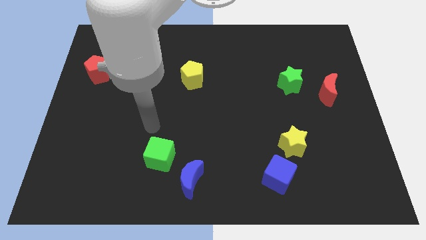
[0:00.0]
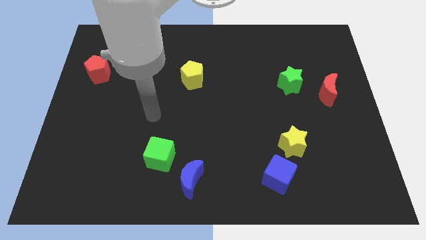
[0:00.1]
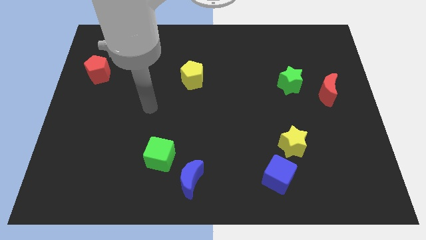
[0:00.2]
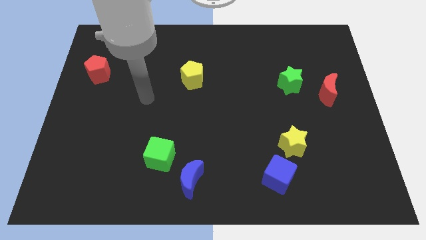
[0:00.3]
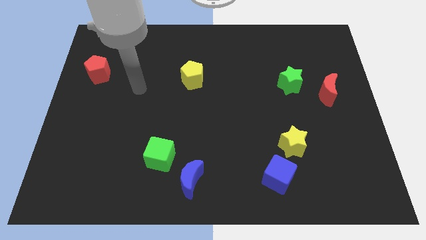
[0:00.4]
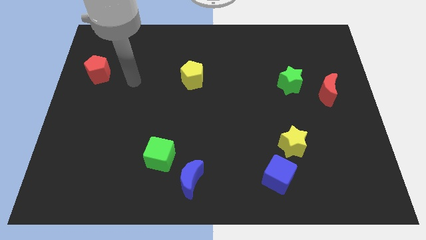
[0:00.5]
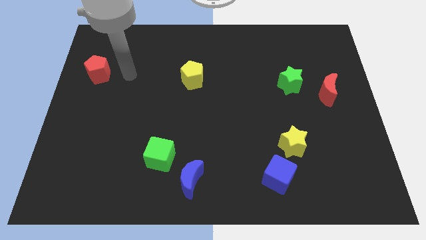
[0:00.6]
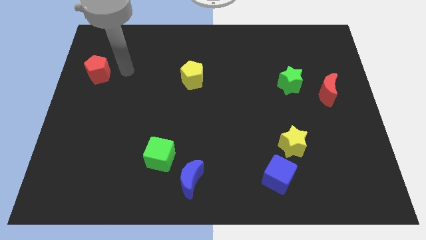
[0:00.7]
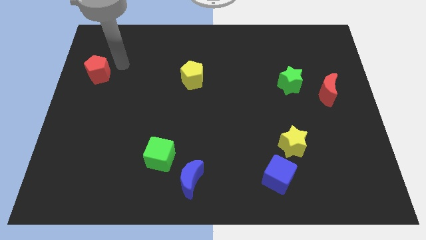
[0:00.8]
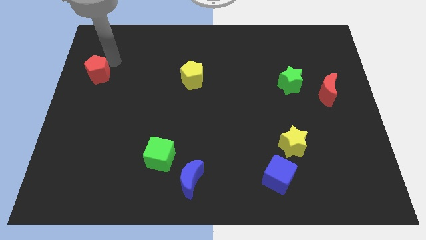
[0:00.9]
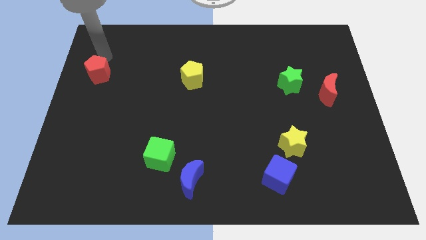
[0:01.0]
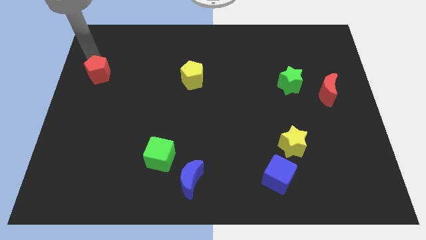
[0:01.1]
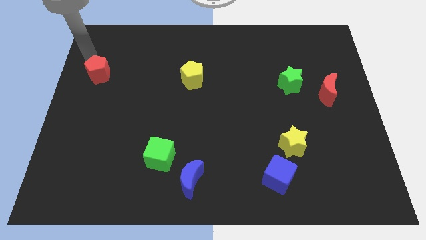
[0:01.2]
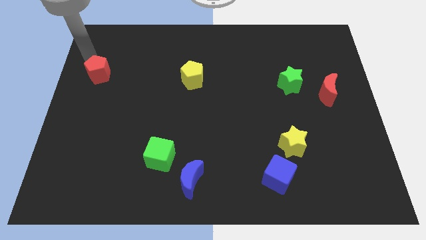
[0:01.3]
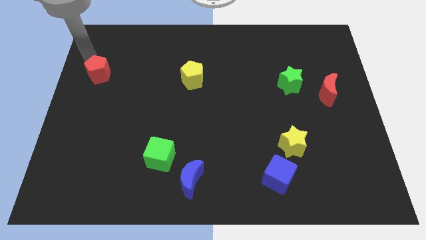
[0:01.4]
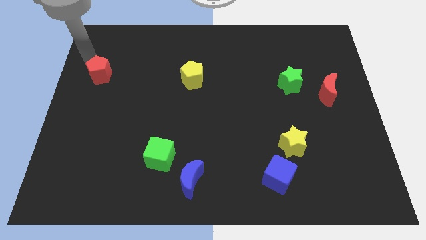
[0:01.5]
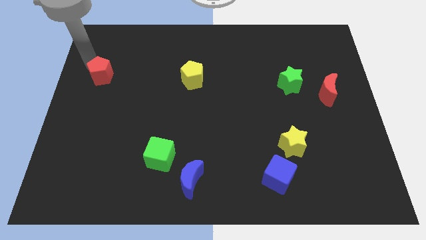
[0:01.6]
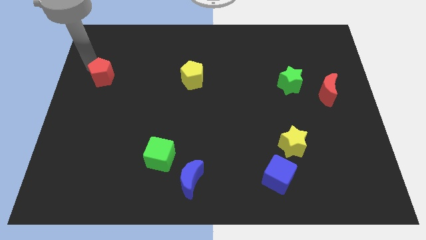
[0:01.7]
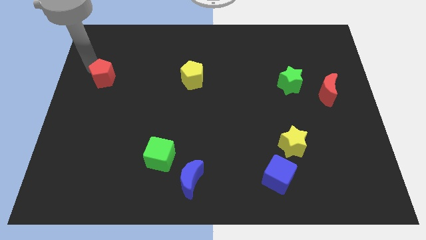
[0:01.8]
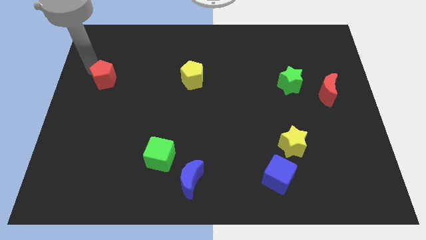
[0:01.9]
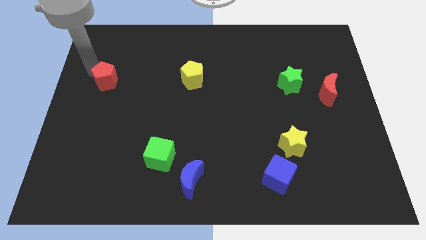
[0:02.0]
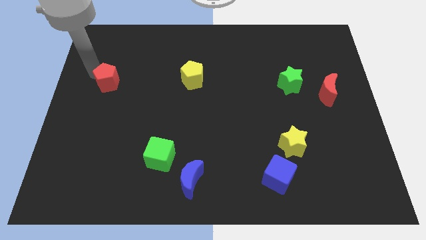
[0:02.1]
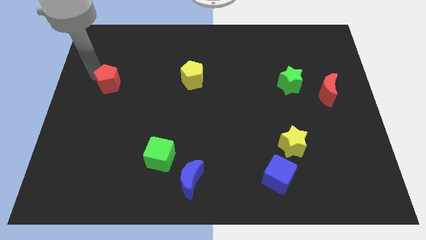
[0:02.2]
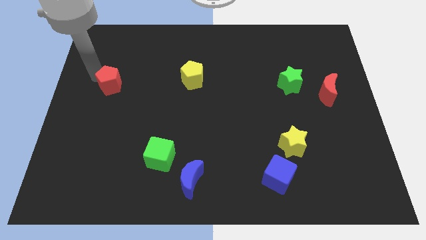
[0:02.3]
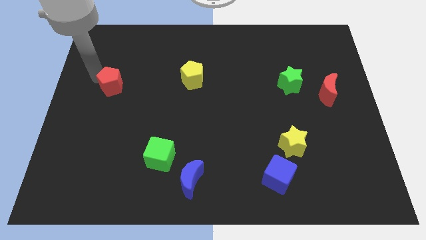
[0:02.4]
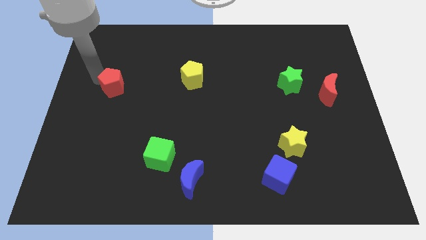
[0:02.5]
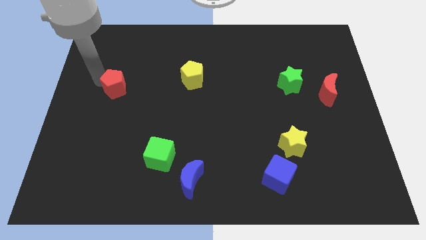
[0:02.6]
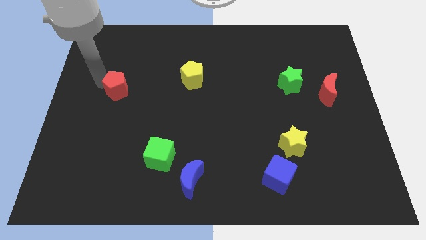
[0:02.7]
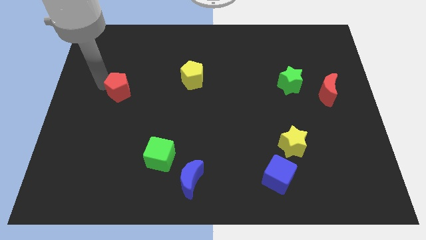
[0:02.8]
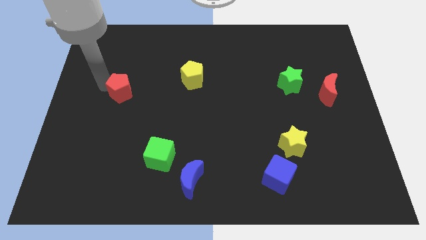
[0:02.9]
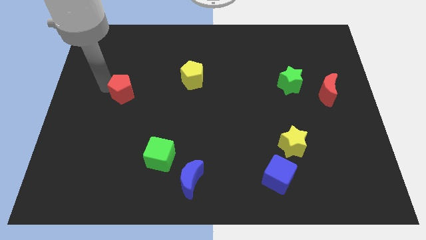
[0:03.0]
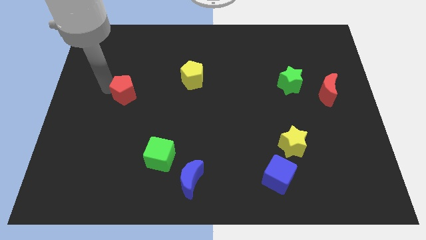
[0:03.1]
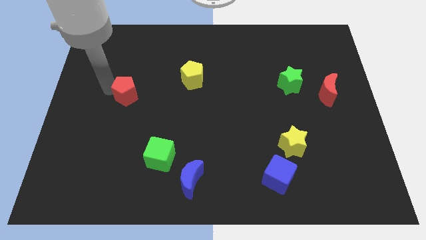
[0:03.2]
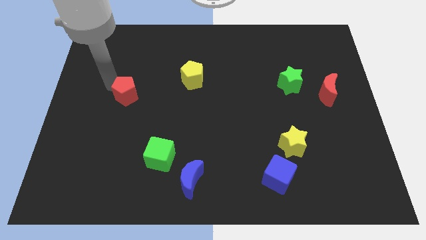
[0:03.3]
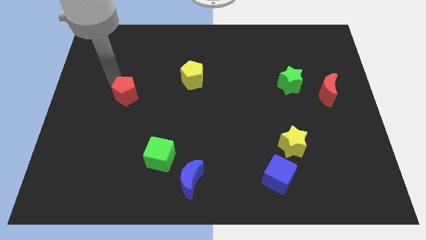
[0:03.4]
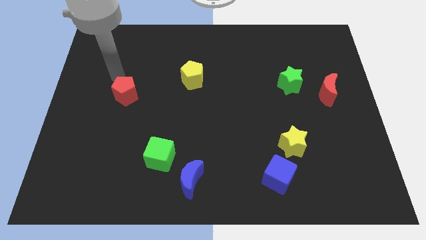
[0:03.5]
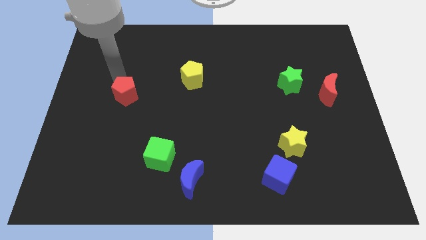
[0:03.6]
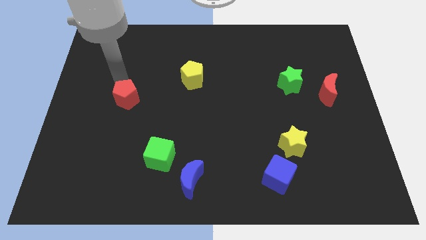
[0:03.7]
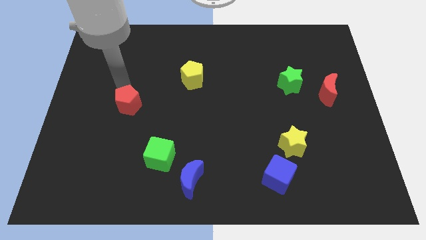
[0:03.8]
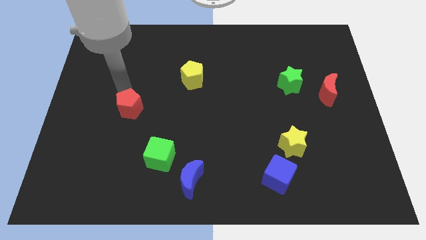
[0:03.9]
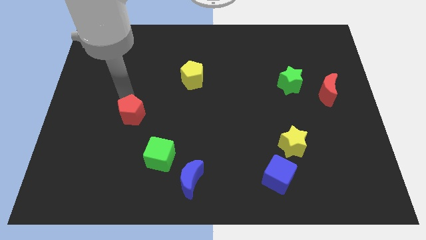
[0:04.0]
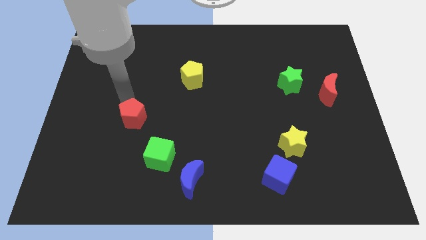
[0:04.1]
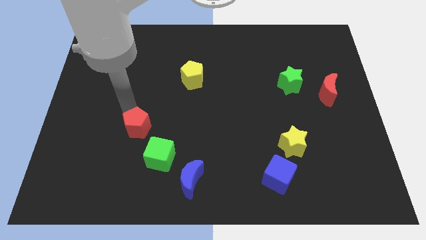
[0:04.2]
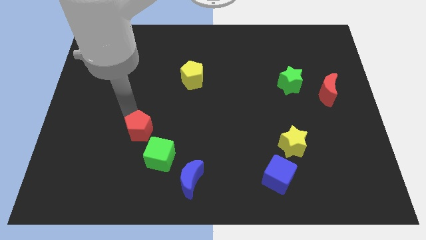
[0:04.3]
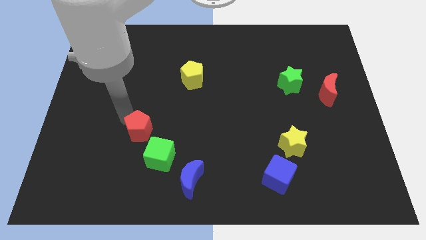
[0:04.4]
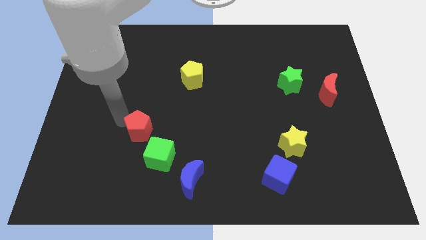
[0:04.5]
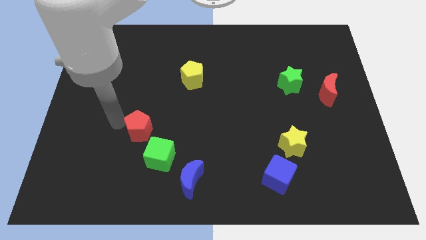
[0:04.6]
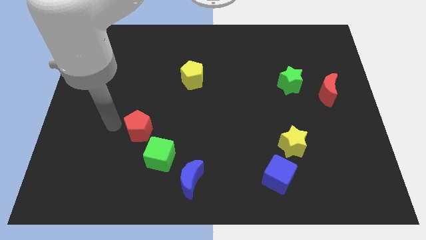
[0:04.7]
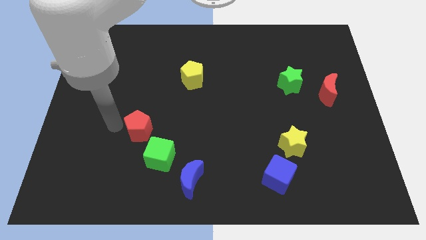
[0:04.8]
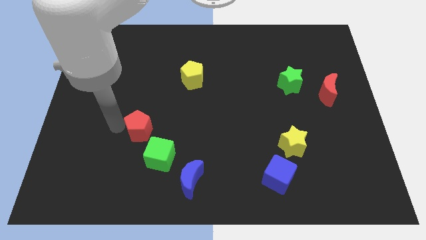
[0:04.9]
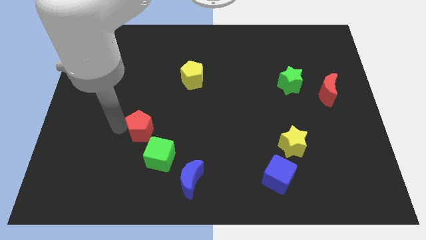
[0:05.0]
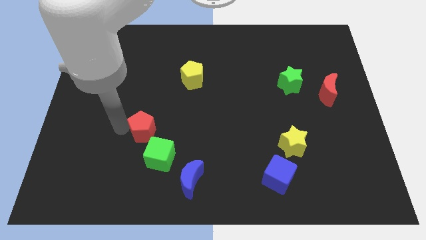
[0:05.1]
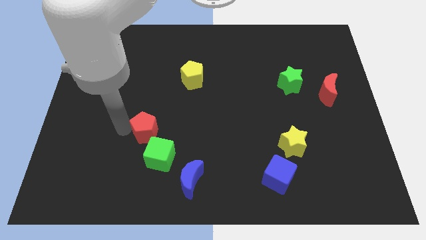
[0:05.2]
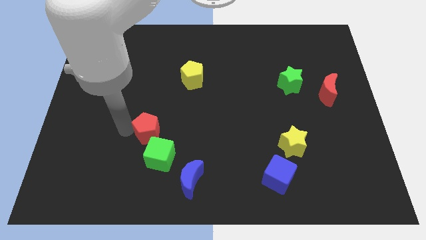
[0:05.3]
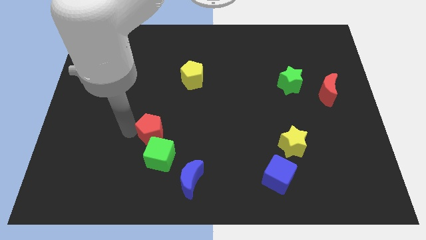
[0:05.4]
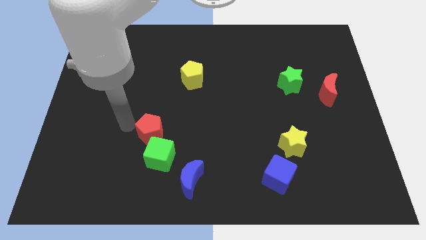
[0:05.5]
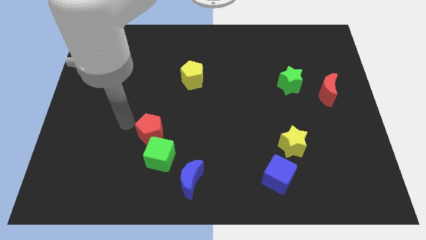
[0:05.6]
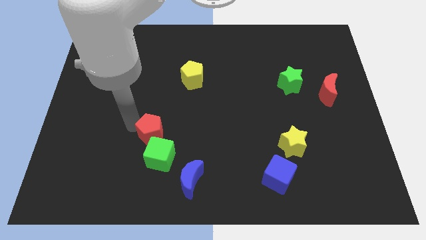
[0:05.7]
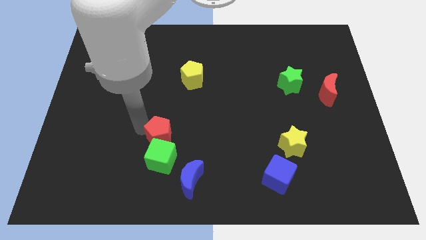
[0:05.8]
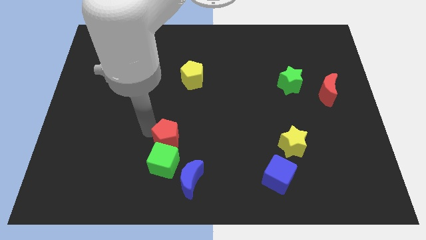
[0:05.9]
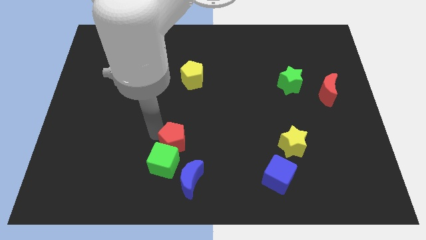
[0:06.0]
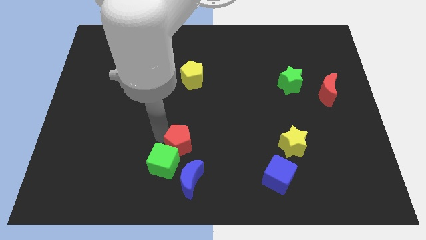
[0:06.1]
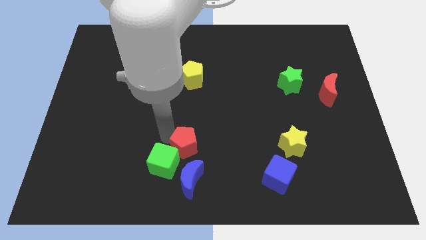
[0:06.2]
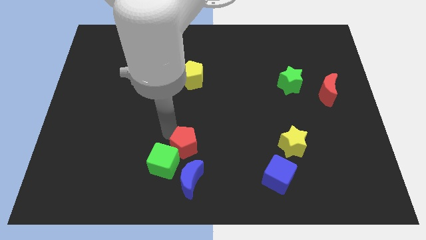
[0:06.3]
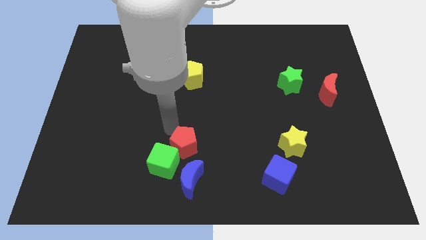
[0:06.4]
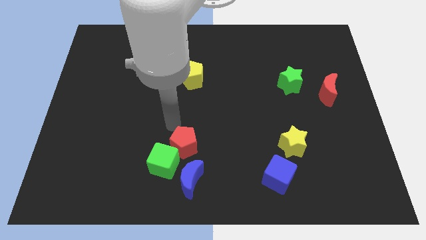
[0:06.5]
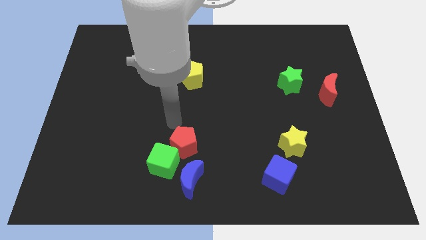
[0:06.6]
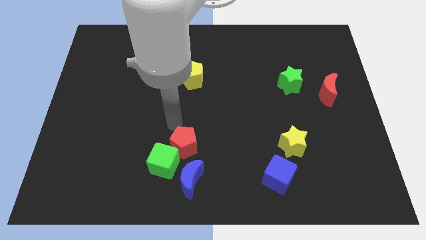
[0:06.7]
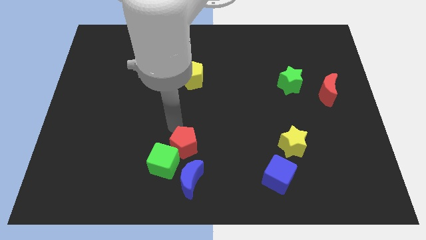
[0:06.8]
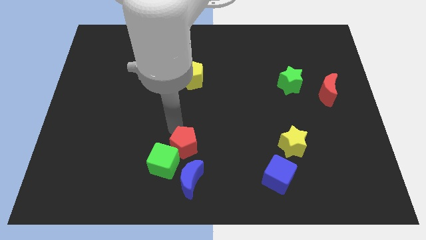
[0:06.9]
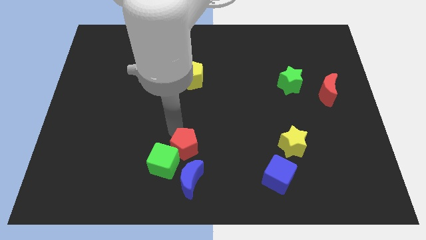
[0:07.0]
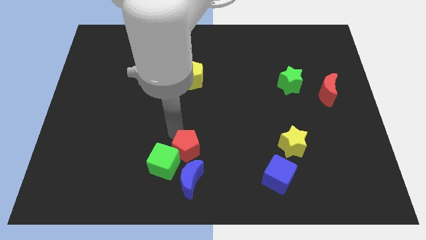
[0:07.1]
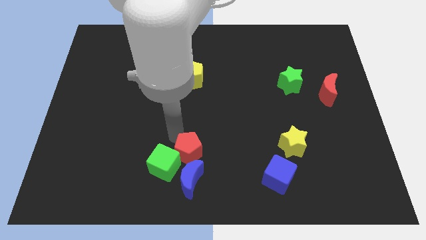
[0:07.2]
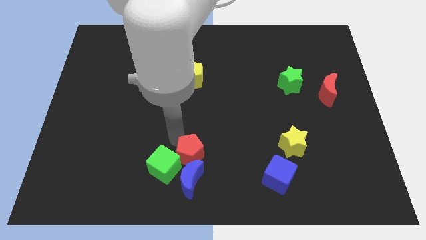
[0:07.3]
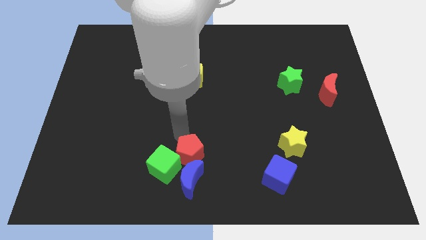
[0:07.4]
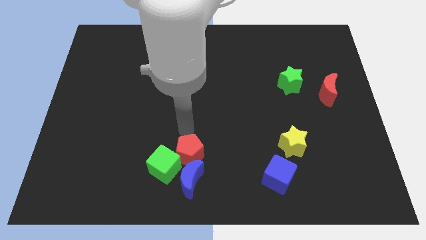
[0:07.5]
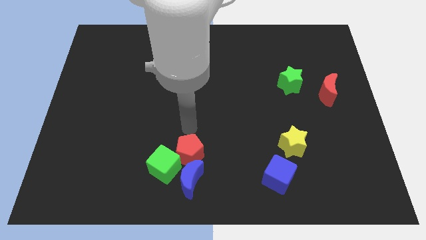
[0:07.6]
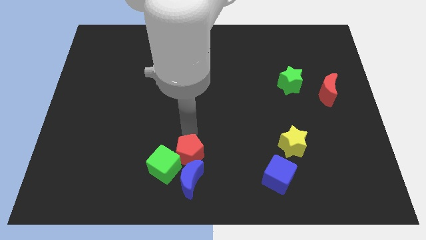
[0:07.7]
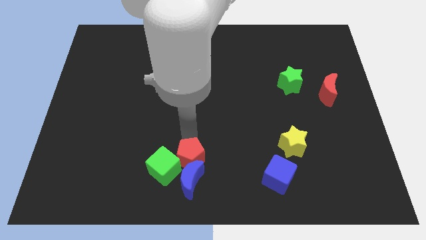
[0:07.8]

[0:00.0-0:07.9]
put the red pentagon next to the blue moon
